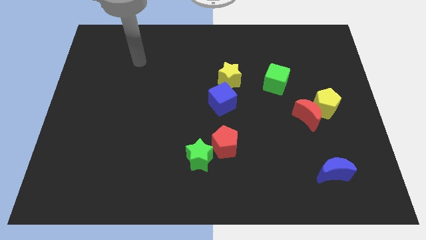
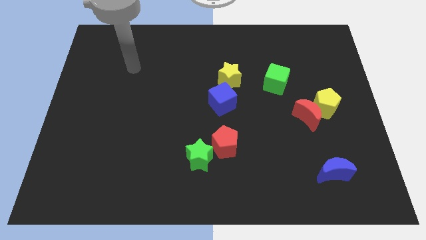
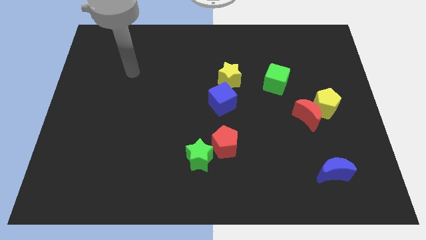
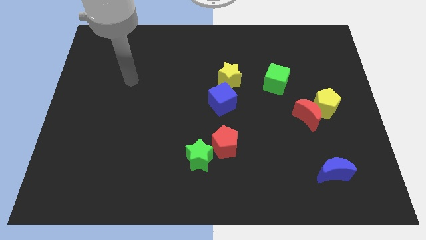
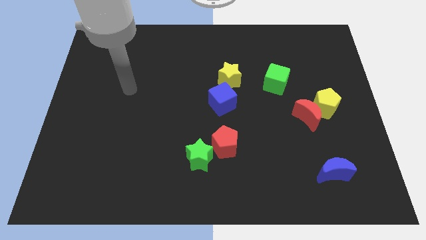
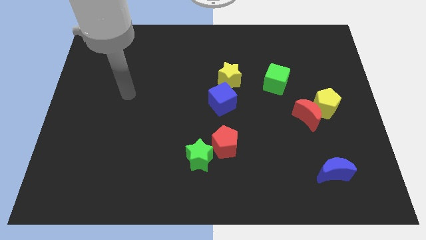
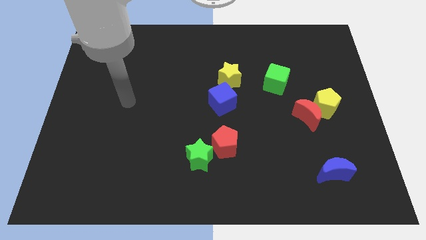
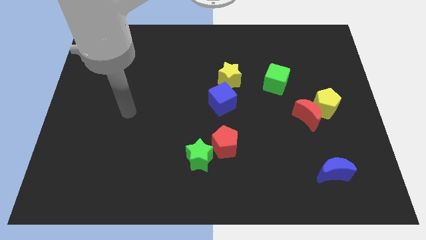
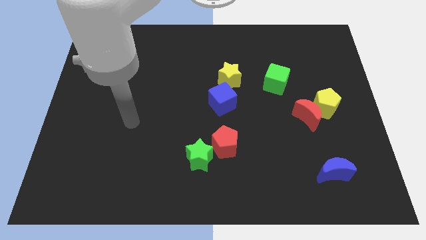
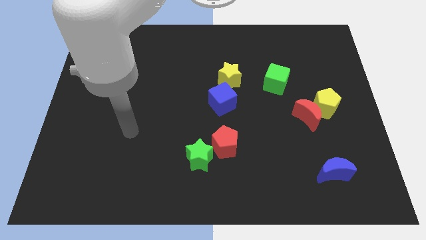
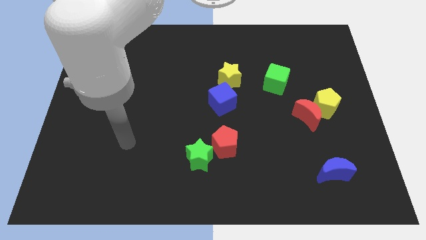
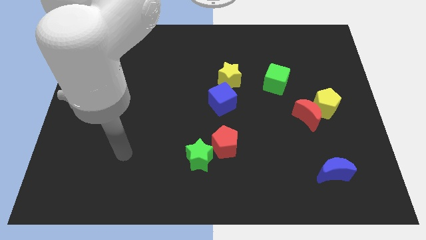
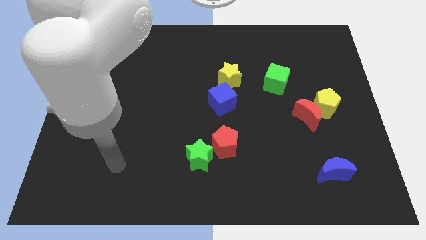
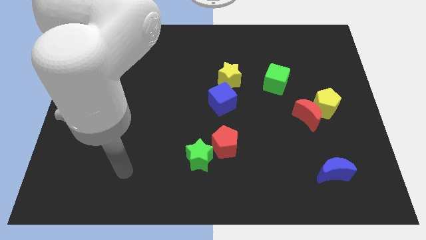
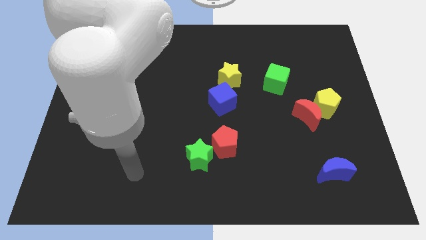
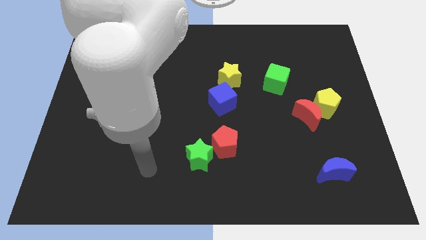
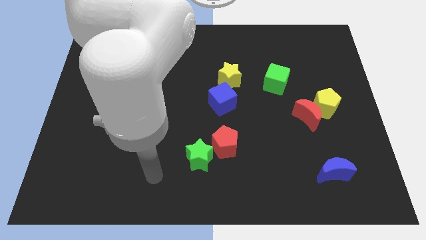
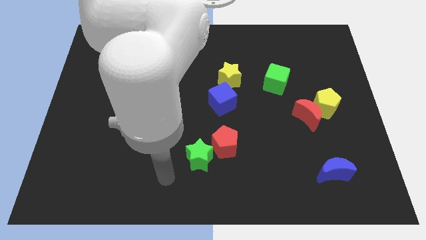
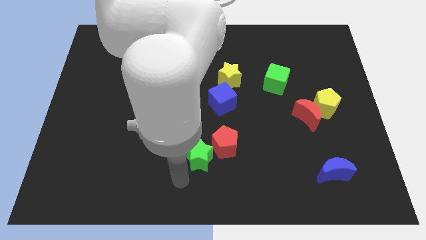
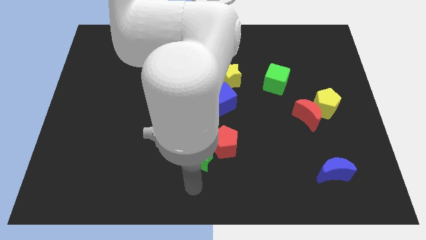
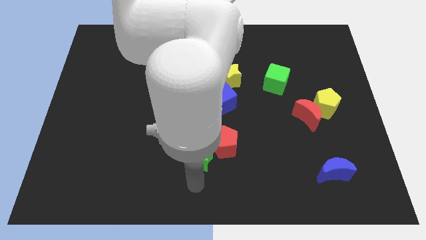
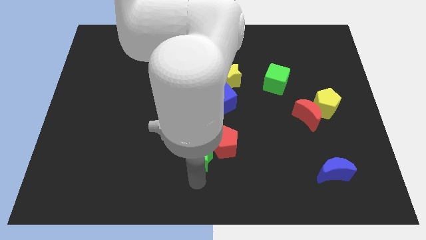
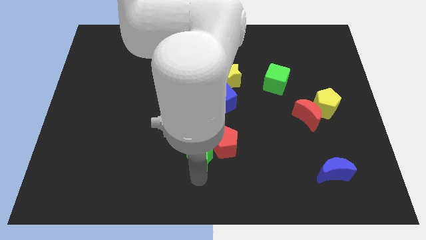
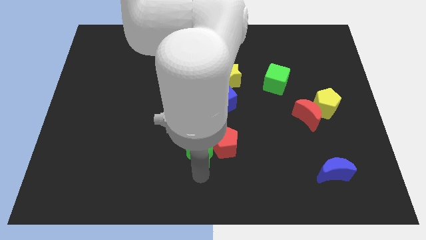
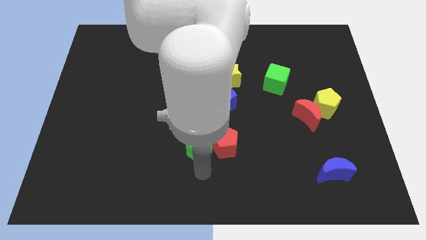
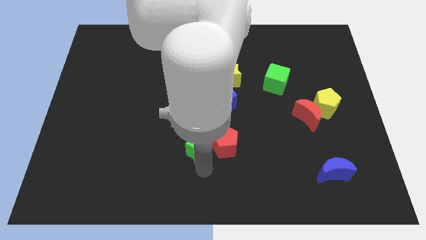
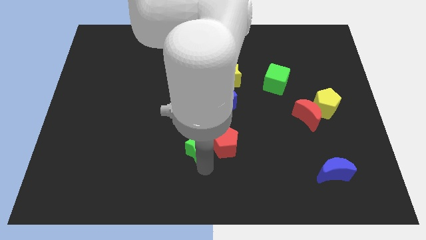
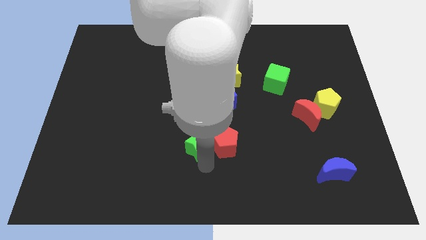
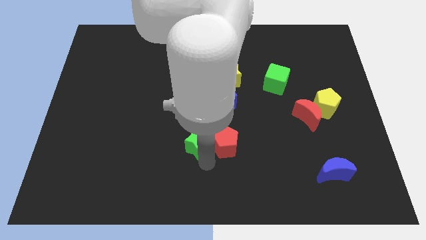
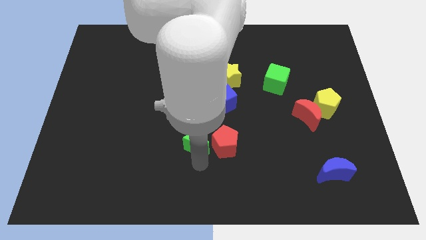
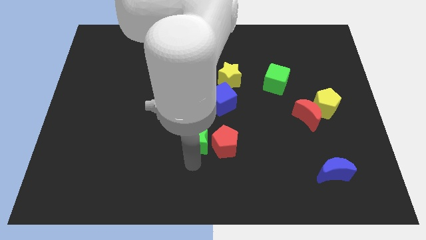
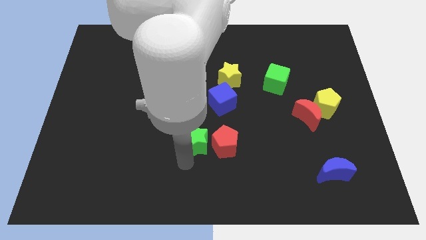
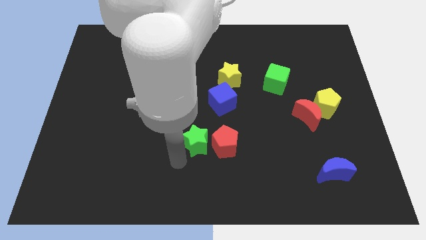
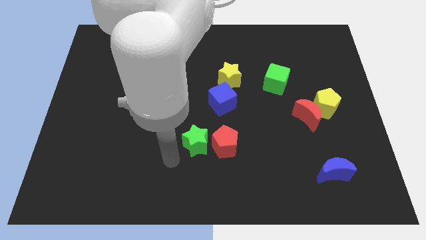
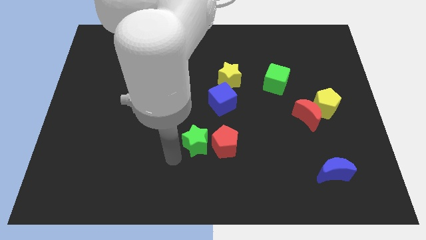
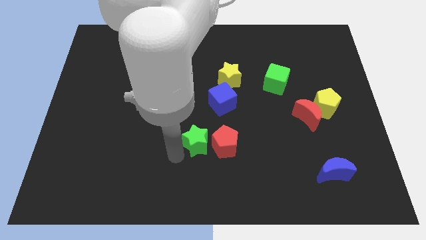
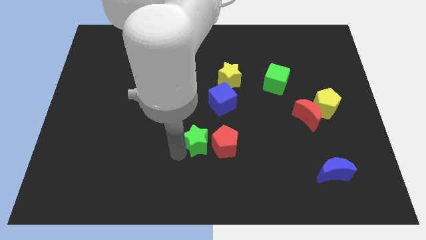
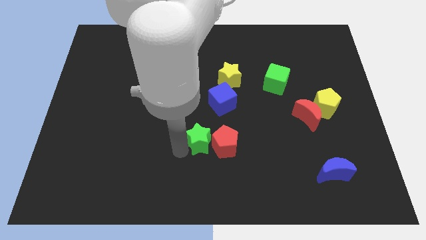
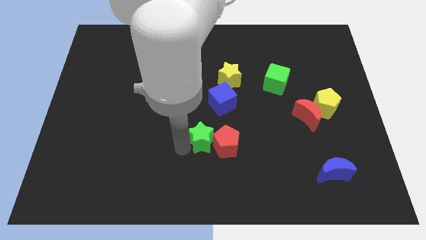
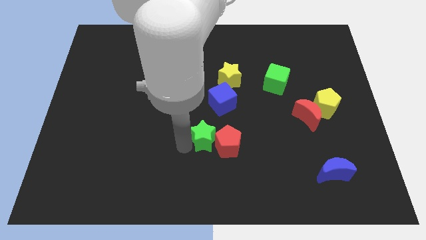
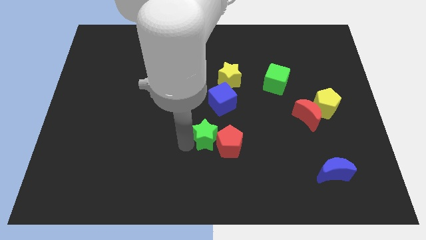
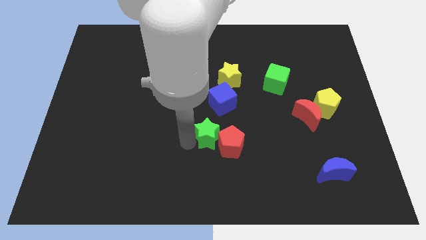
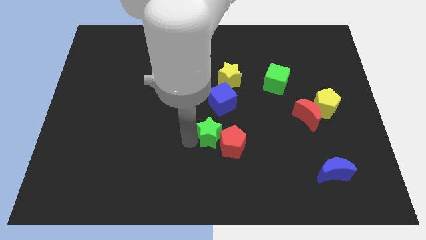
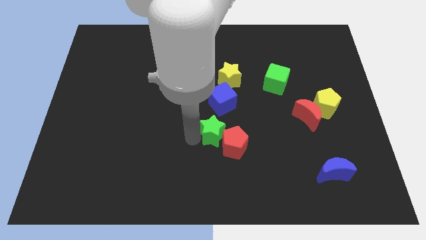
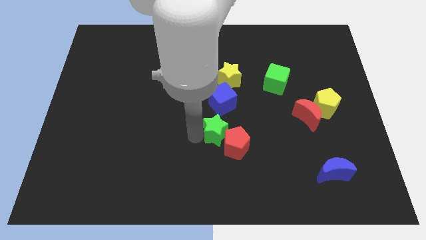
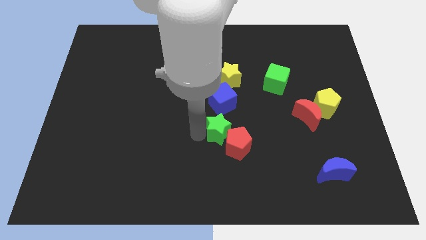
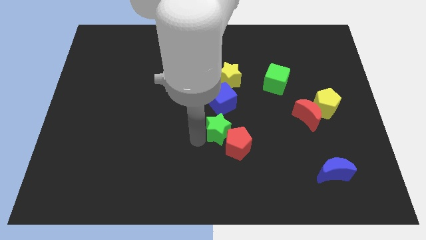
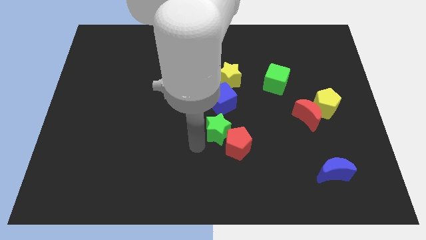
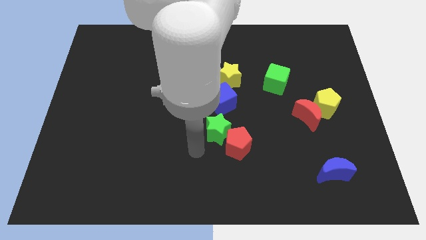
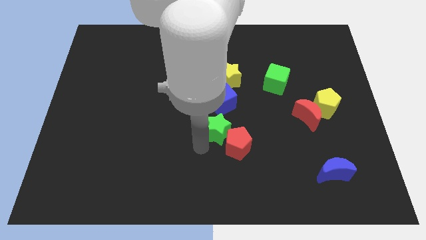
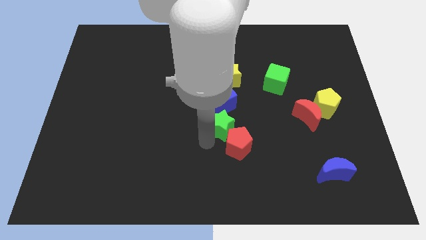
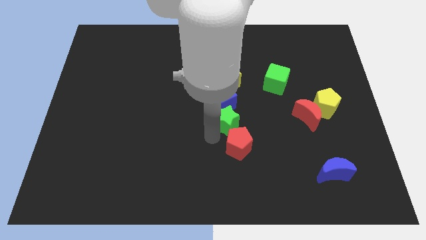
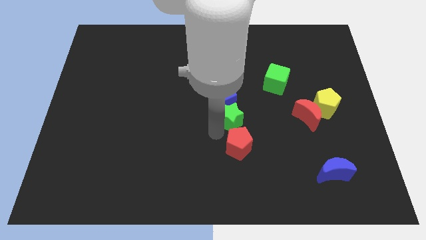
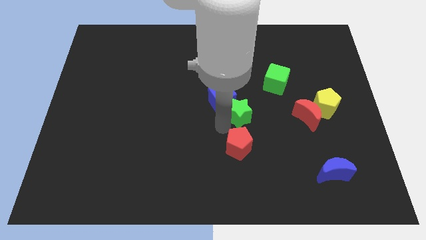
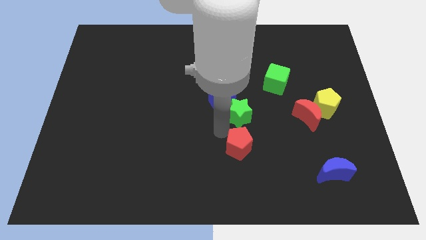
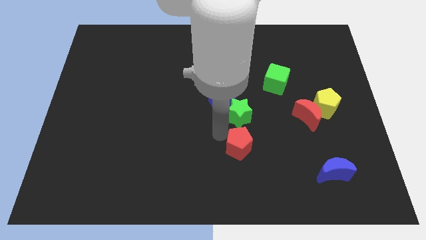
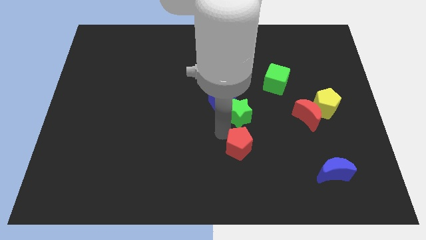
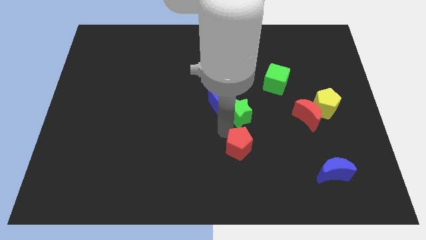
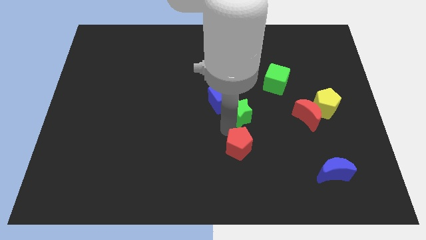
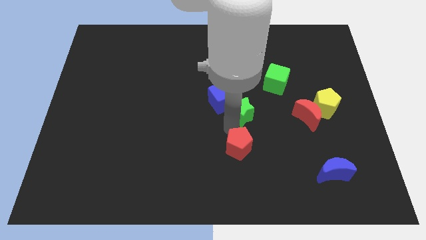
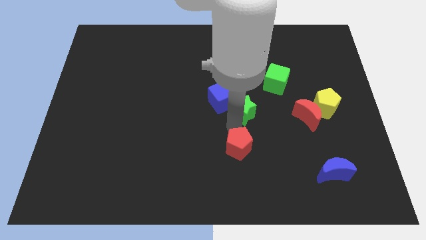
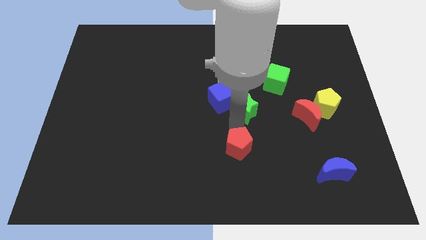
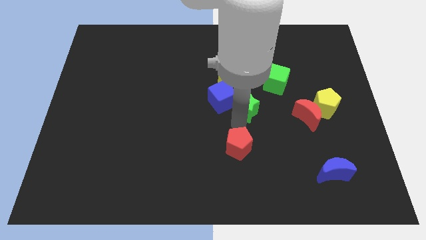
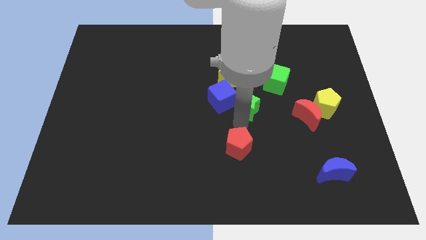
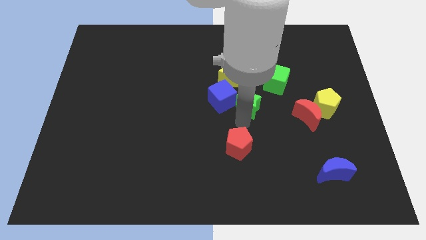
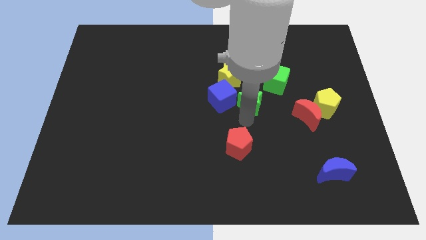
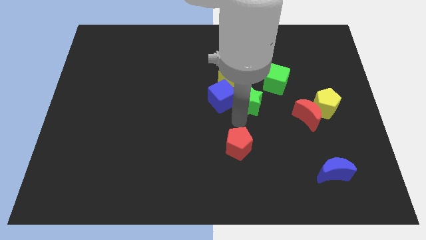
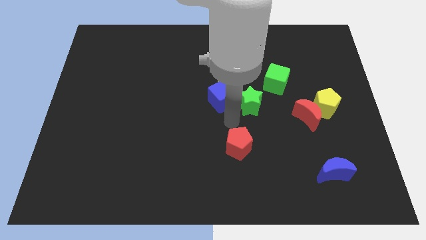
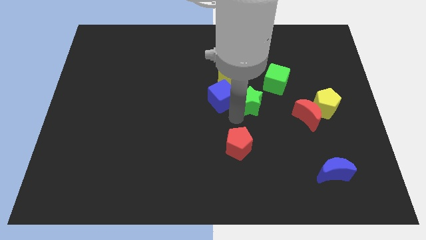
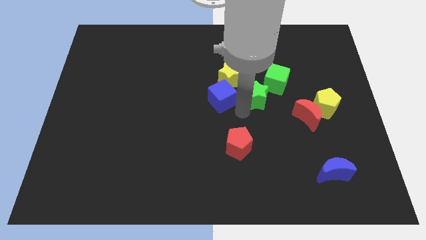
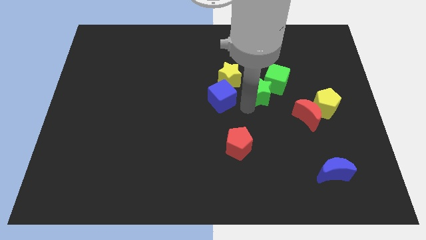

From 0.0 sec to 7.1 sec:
put the green star close to the green cube
